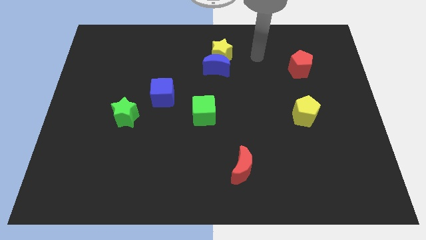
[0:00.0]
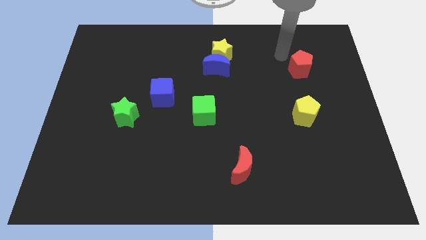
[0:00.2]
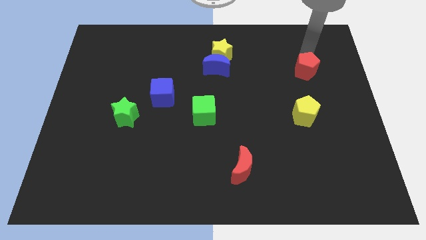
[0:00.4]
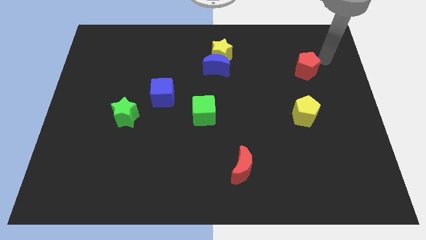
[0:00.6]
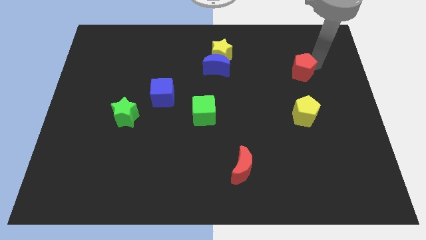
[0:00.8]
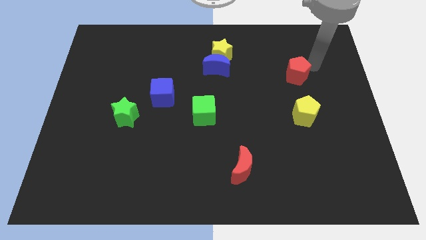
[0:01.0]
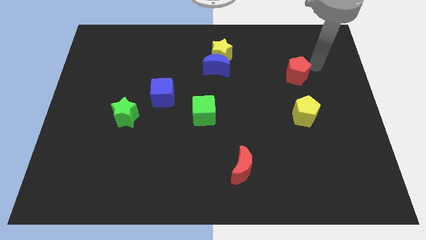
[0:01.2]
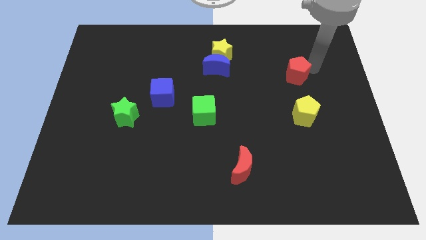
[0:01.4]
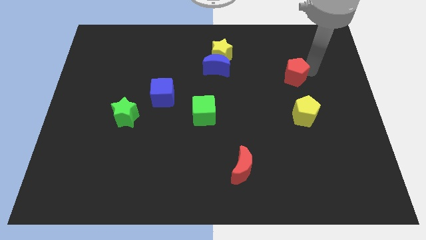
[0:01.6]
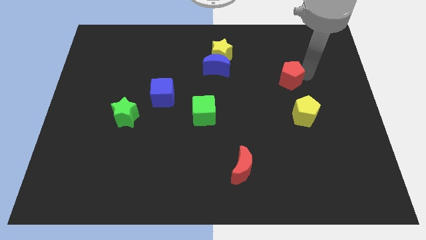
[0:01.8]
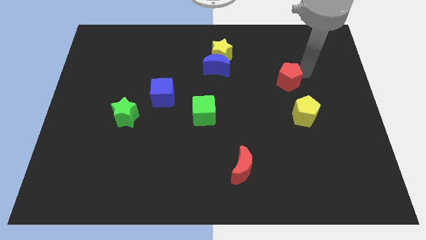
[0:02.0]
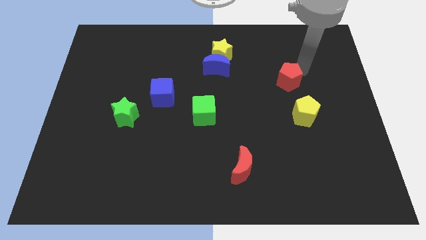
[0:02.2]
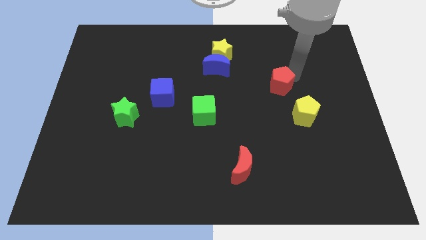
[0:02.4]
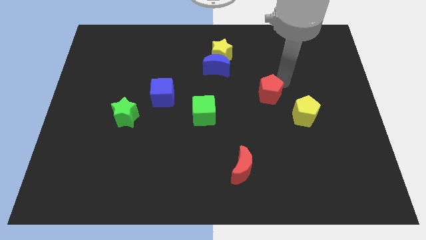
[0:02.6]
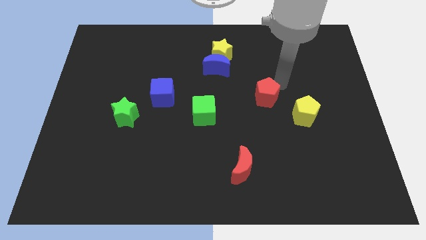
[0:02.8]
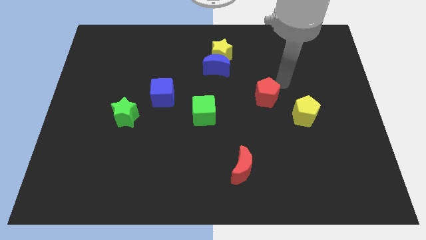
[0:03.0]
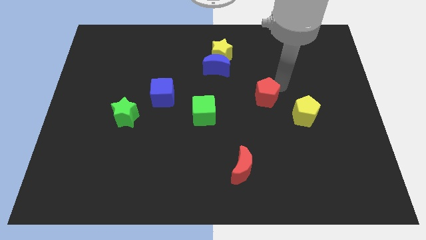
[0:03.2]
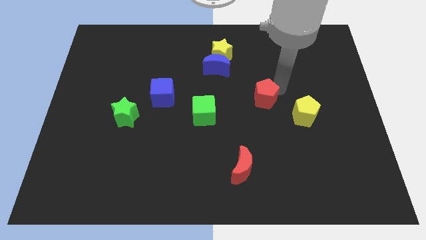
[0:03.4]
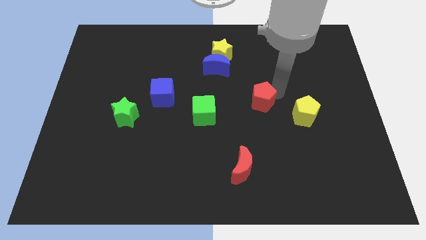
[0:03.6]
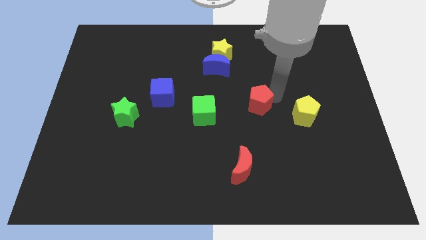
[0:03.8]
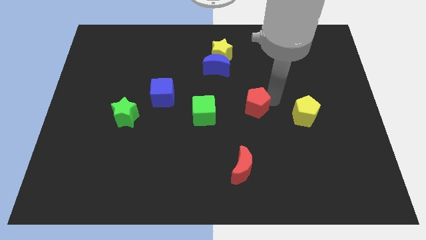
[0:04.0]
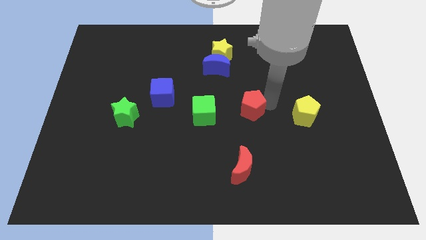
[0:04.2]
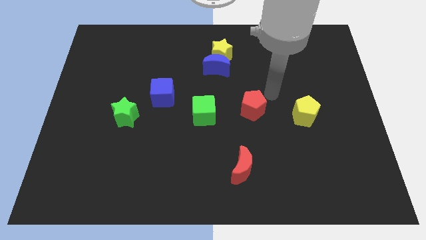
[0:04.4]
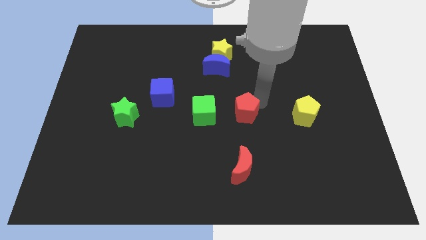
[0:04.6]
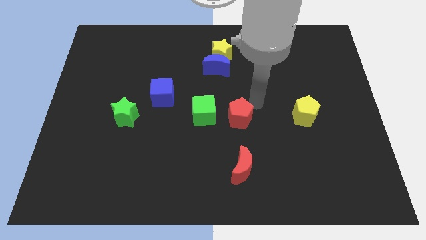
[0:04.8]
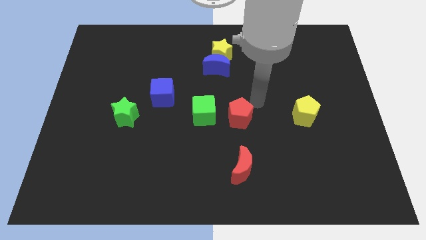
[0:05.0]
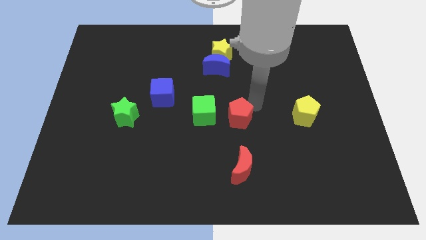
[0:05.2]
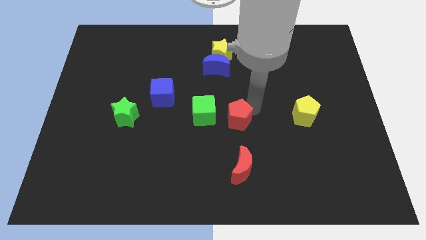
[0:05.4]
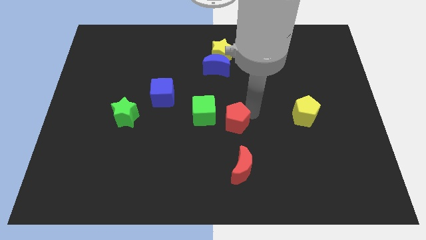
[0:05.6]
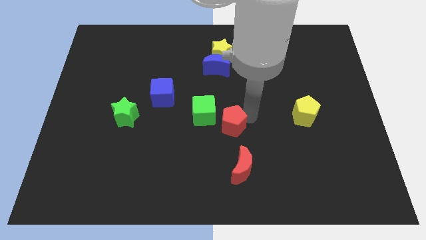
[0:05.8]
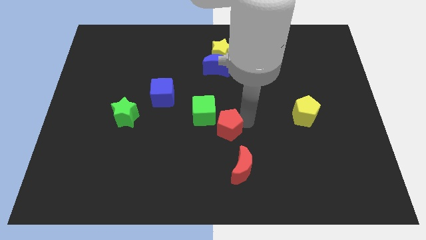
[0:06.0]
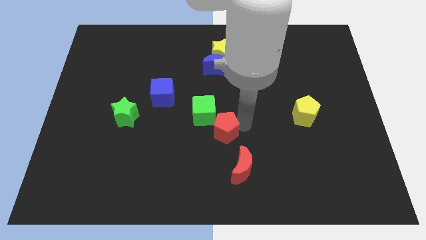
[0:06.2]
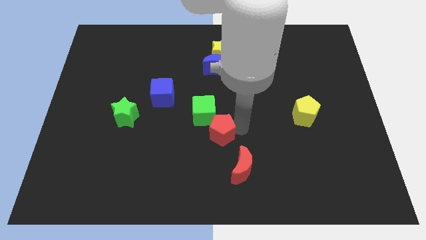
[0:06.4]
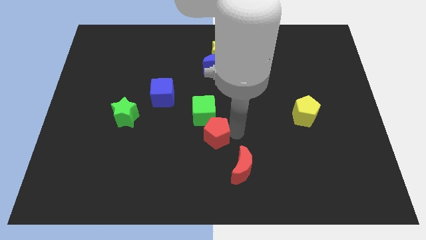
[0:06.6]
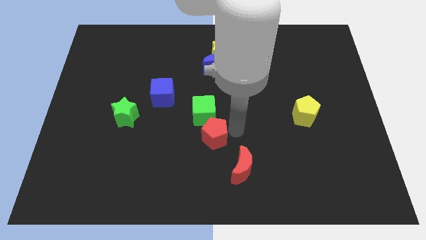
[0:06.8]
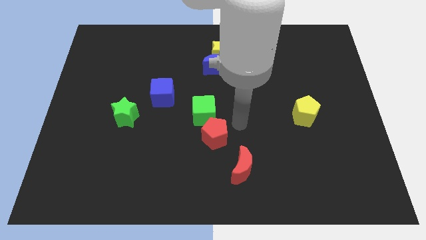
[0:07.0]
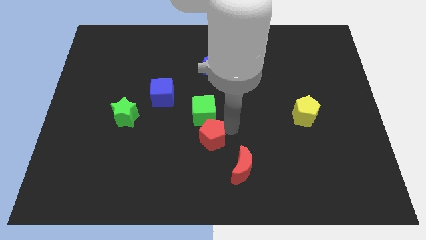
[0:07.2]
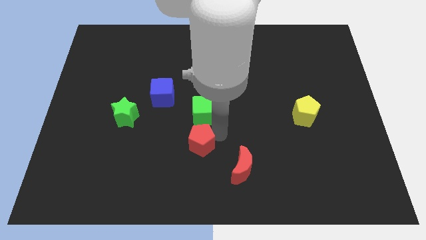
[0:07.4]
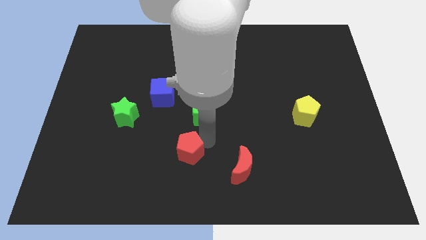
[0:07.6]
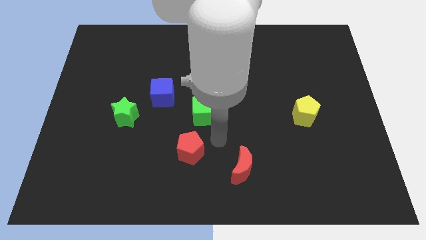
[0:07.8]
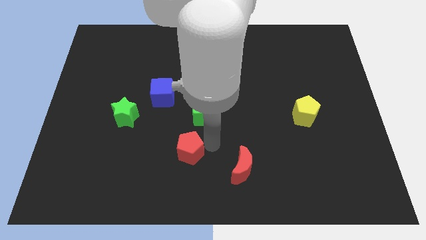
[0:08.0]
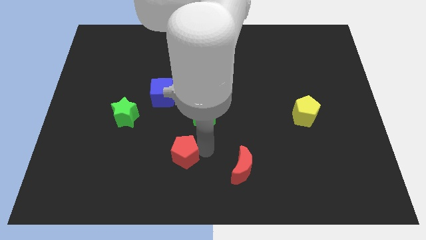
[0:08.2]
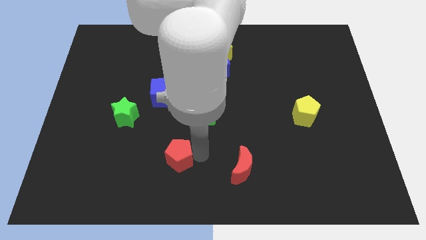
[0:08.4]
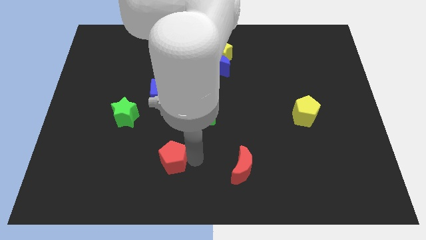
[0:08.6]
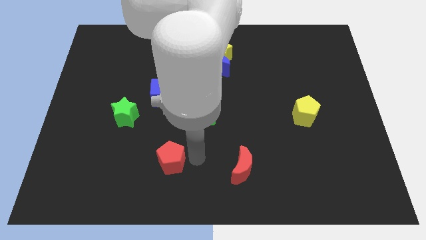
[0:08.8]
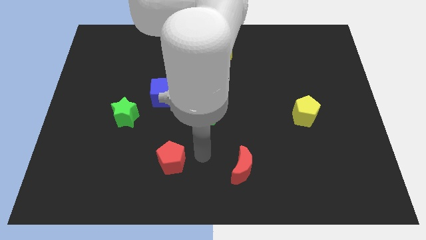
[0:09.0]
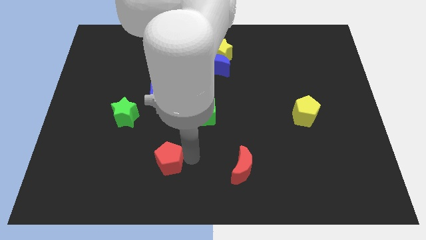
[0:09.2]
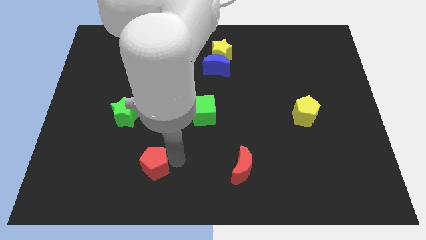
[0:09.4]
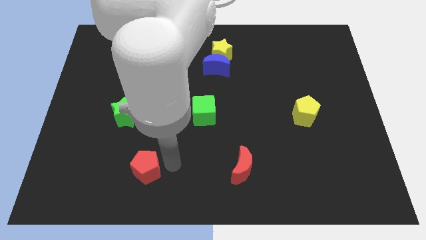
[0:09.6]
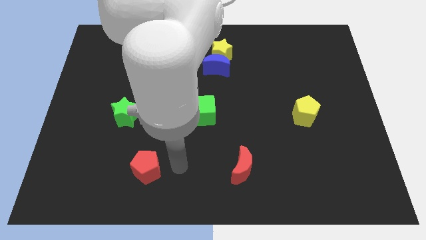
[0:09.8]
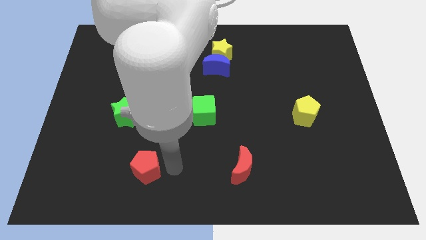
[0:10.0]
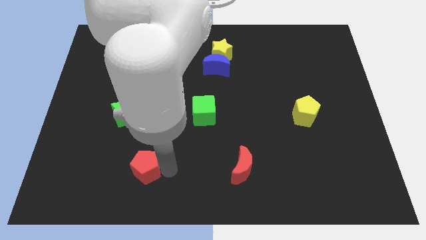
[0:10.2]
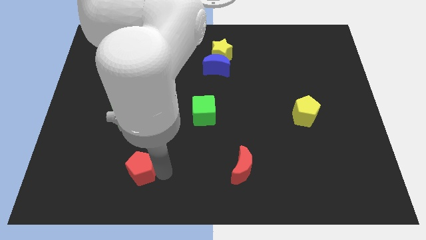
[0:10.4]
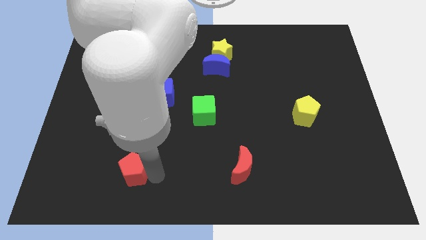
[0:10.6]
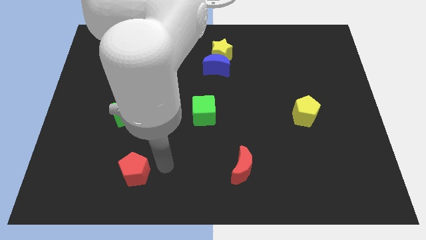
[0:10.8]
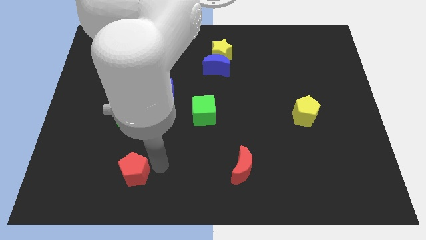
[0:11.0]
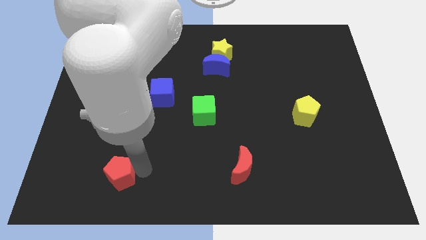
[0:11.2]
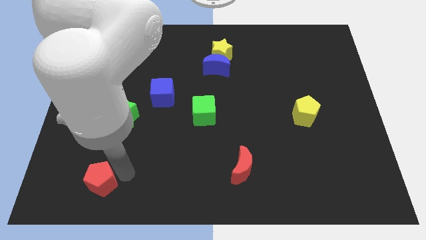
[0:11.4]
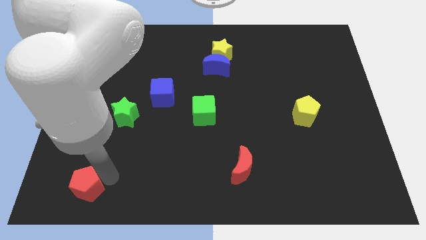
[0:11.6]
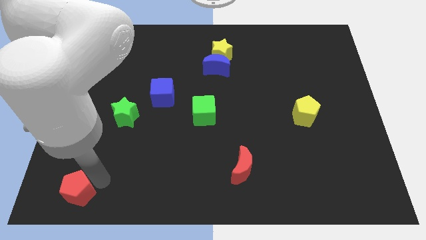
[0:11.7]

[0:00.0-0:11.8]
put the red pentagon to the bottom left corner

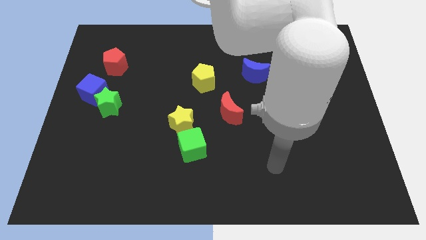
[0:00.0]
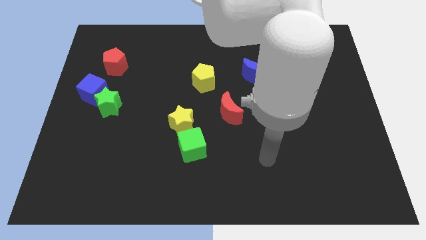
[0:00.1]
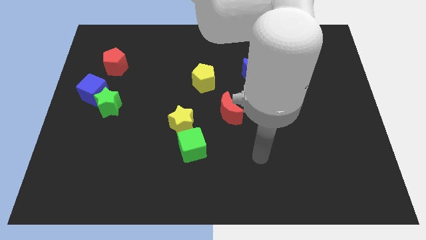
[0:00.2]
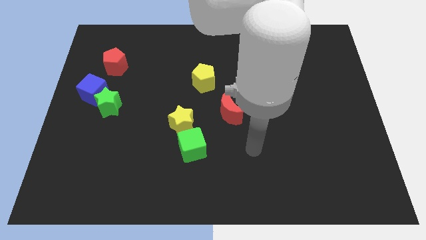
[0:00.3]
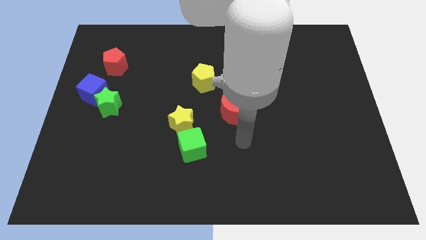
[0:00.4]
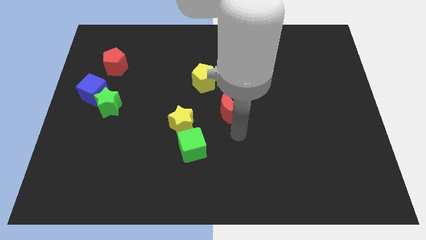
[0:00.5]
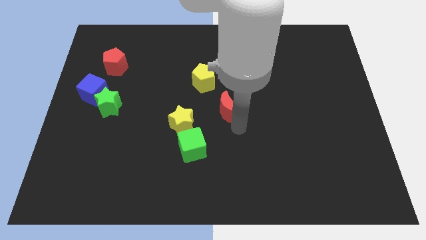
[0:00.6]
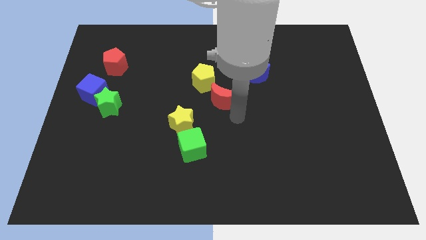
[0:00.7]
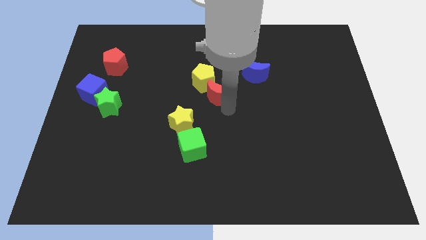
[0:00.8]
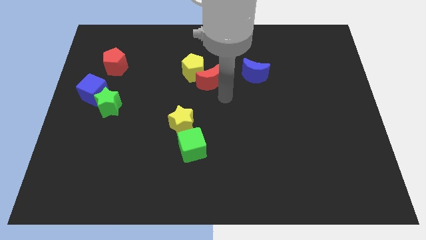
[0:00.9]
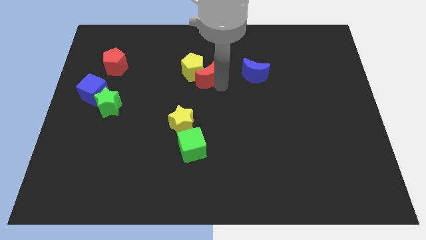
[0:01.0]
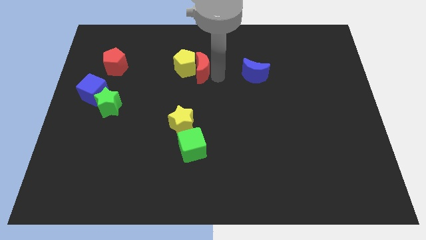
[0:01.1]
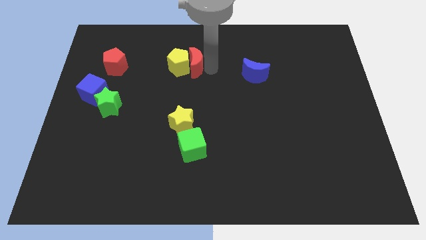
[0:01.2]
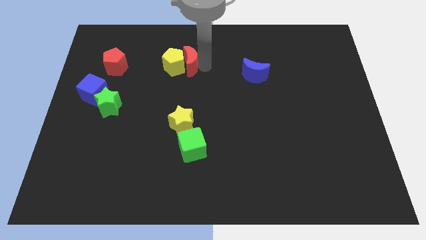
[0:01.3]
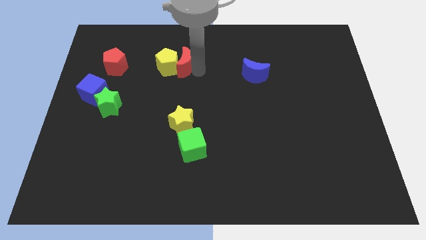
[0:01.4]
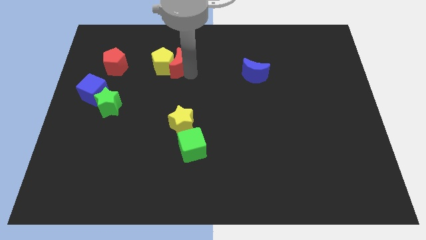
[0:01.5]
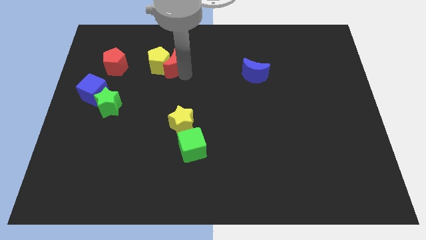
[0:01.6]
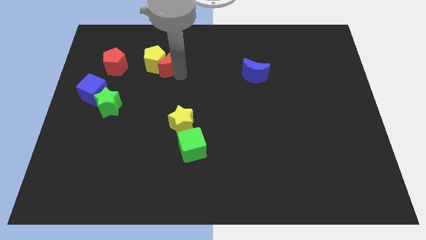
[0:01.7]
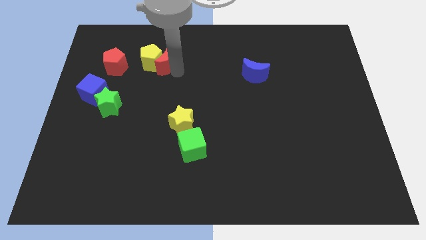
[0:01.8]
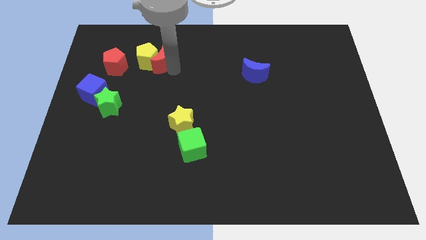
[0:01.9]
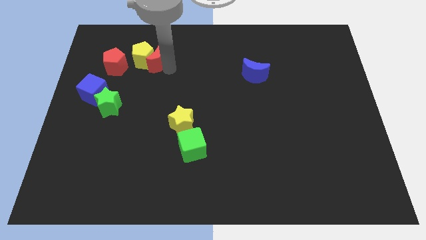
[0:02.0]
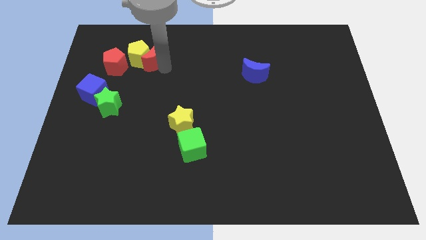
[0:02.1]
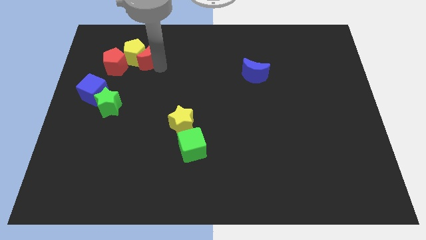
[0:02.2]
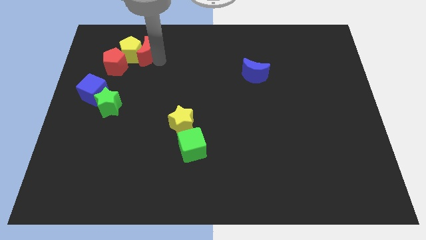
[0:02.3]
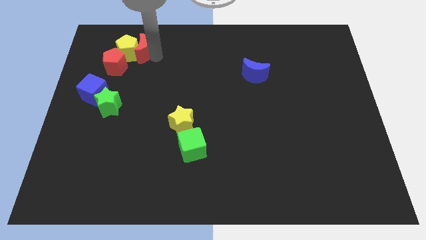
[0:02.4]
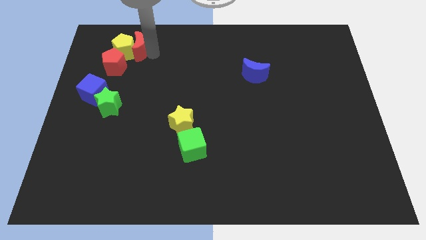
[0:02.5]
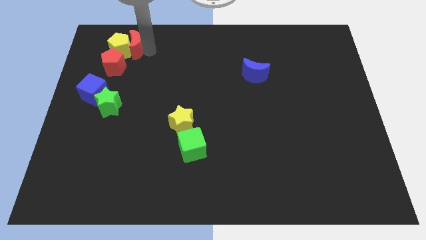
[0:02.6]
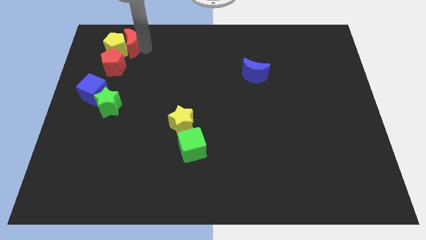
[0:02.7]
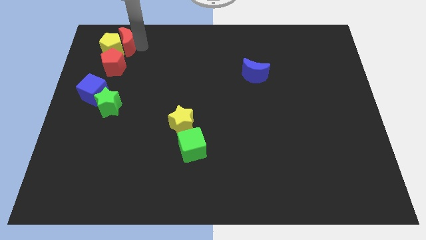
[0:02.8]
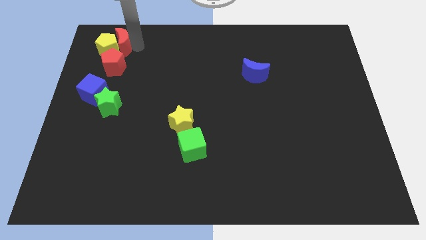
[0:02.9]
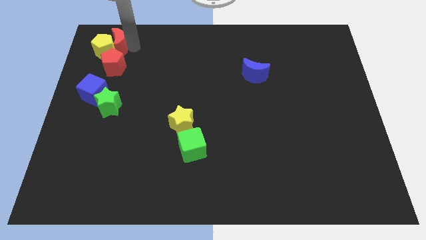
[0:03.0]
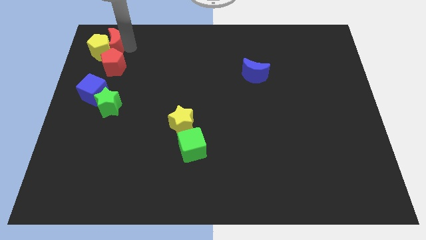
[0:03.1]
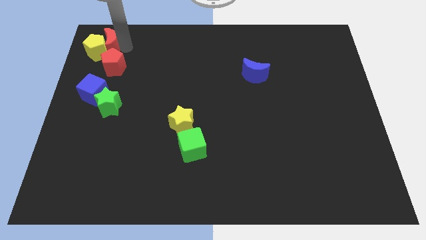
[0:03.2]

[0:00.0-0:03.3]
slide the yellow pentagon to the top left of the board
